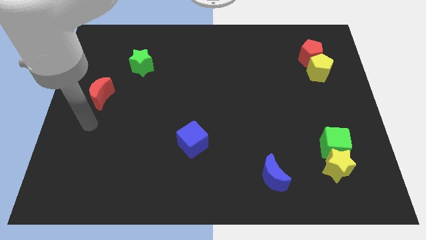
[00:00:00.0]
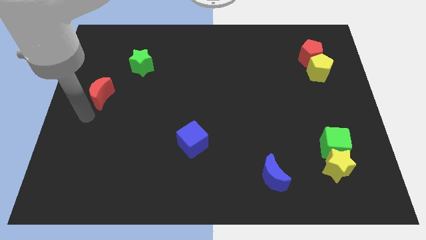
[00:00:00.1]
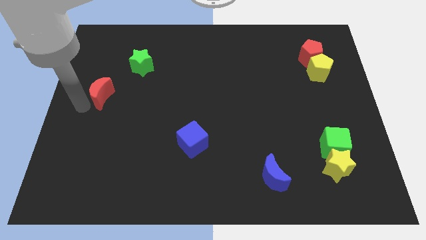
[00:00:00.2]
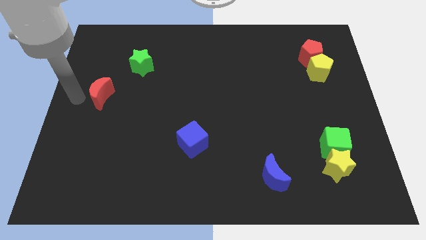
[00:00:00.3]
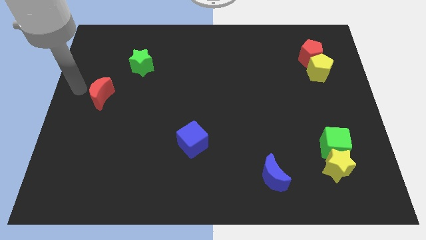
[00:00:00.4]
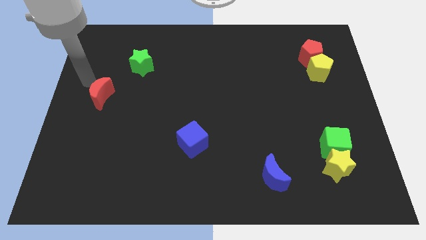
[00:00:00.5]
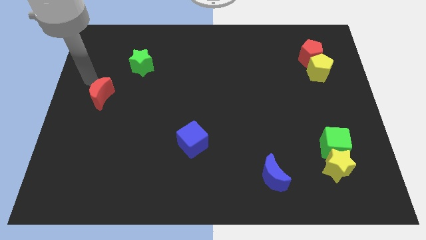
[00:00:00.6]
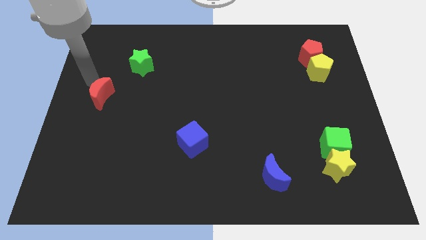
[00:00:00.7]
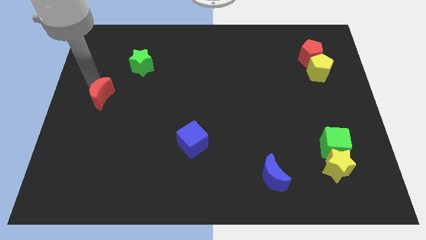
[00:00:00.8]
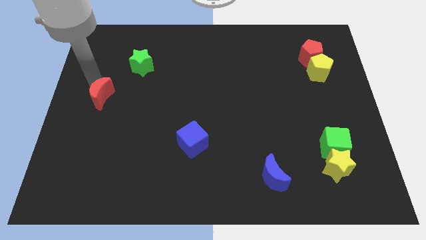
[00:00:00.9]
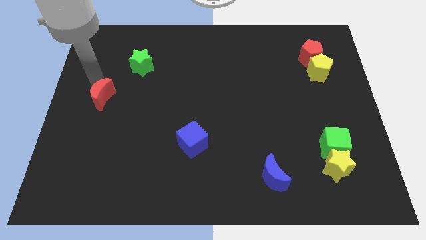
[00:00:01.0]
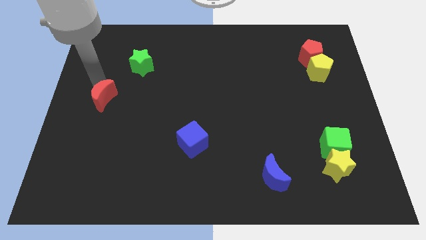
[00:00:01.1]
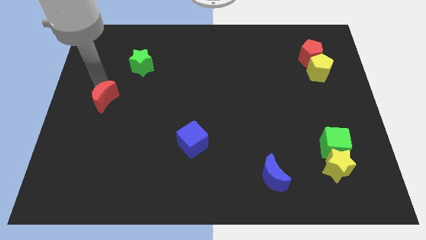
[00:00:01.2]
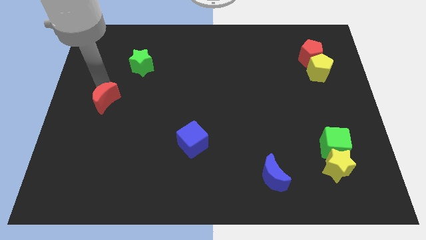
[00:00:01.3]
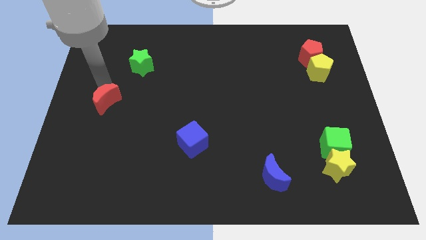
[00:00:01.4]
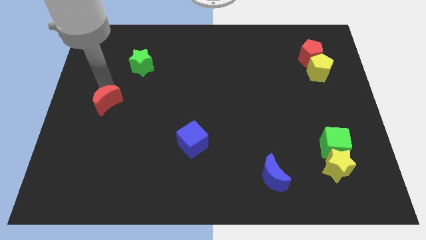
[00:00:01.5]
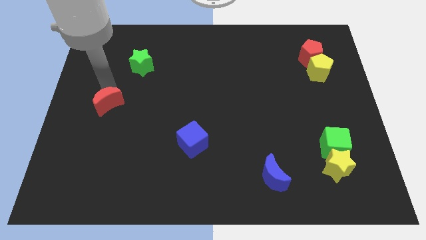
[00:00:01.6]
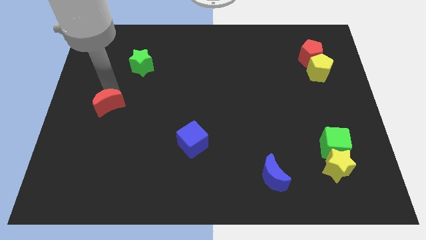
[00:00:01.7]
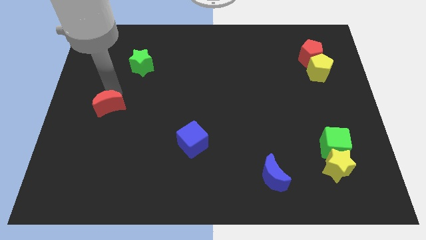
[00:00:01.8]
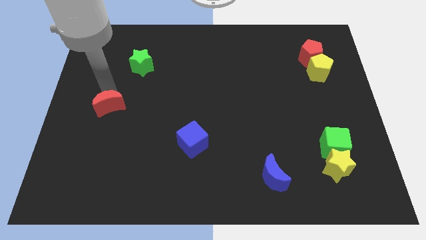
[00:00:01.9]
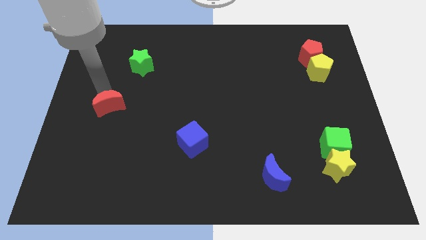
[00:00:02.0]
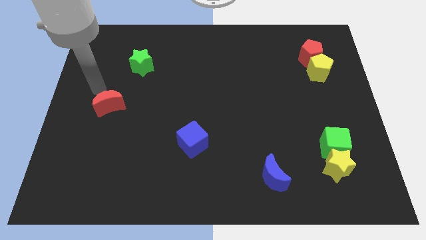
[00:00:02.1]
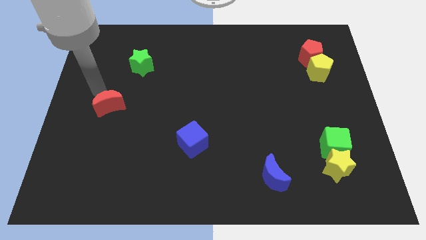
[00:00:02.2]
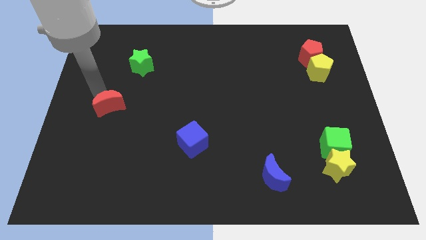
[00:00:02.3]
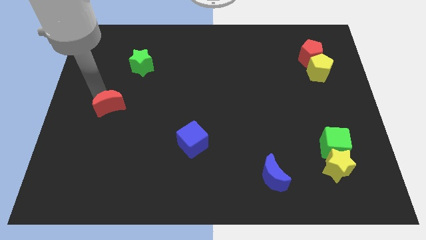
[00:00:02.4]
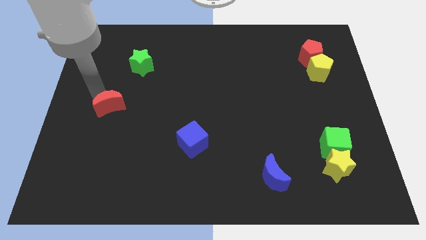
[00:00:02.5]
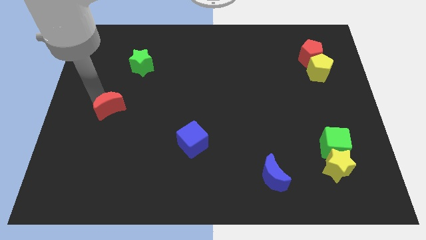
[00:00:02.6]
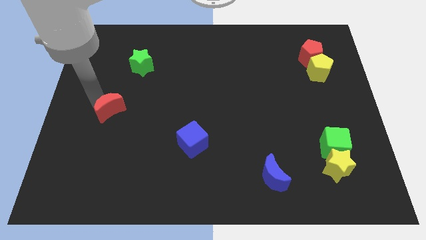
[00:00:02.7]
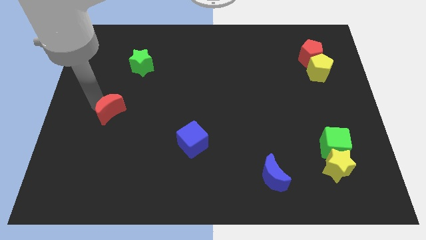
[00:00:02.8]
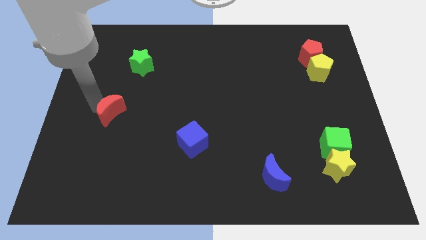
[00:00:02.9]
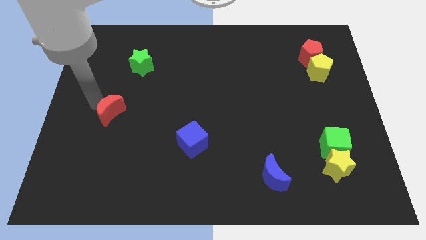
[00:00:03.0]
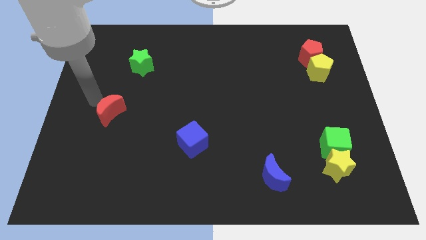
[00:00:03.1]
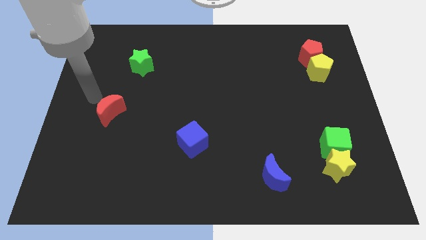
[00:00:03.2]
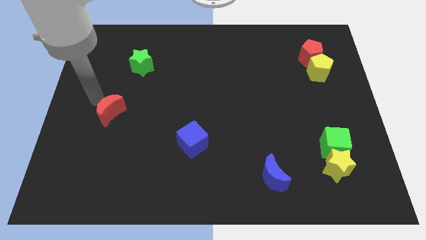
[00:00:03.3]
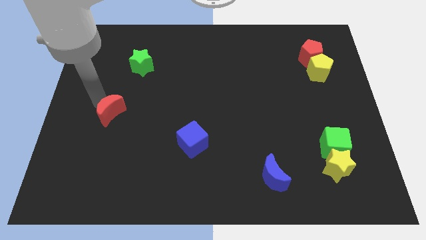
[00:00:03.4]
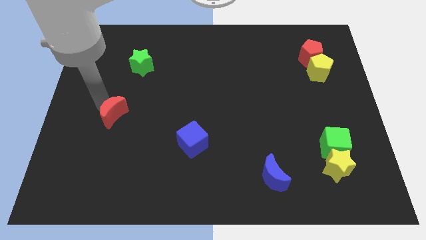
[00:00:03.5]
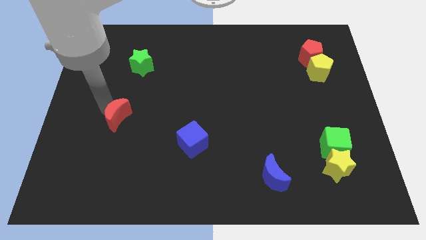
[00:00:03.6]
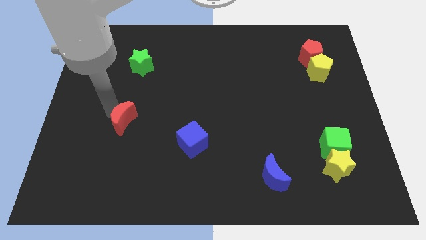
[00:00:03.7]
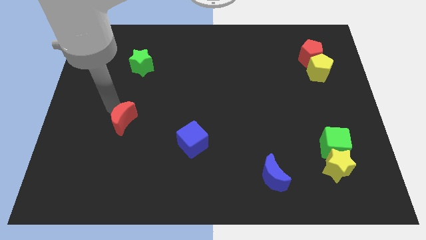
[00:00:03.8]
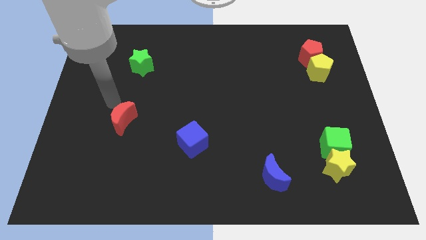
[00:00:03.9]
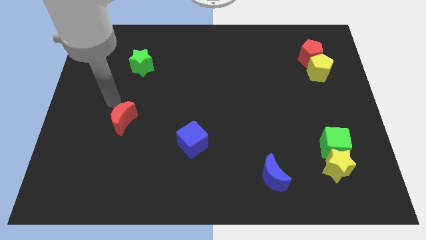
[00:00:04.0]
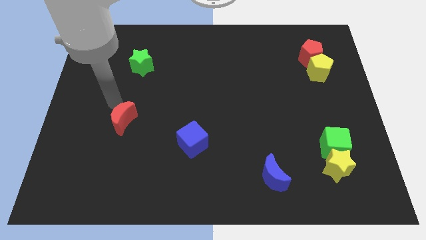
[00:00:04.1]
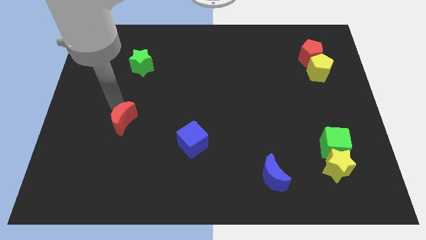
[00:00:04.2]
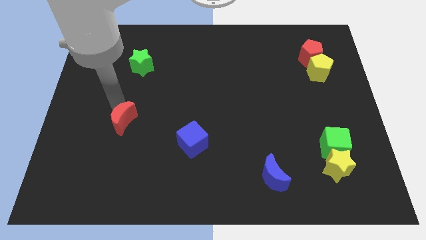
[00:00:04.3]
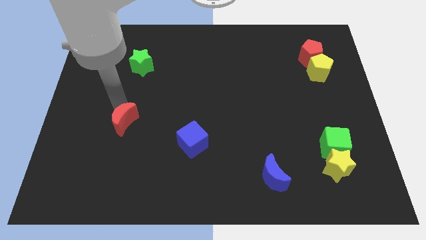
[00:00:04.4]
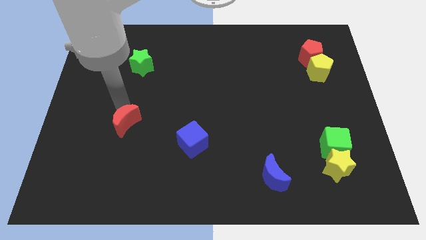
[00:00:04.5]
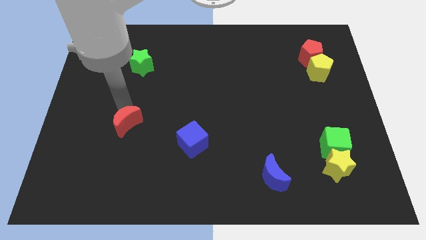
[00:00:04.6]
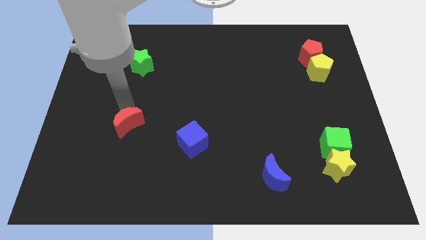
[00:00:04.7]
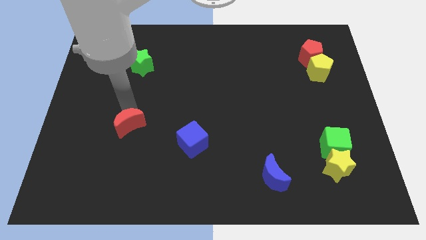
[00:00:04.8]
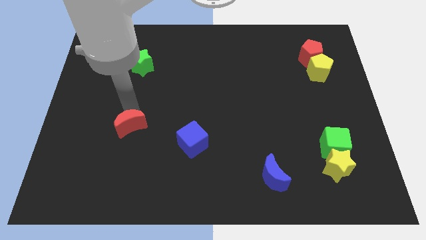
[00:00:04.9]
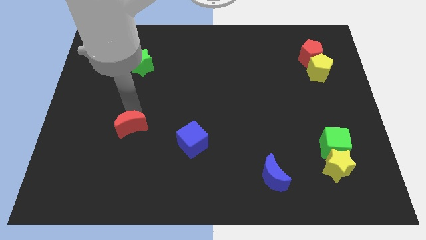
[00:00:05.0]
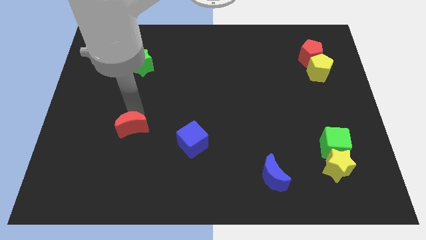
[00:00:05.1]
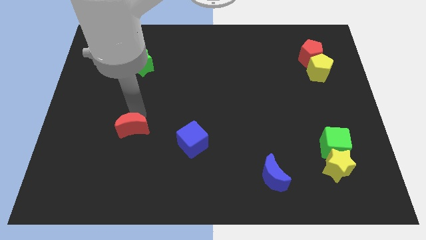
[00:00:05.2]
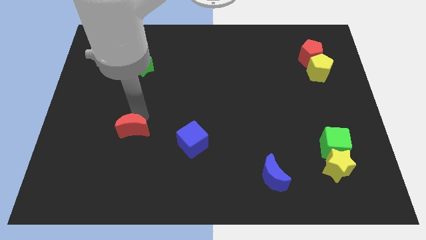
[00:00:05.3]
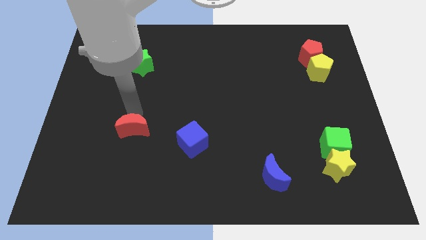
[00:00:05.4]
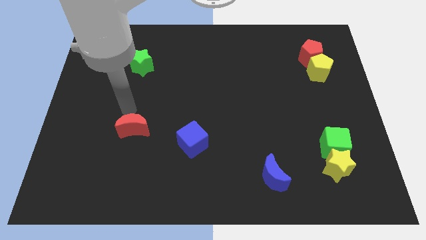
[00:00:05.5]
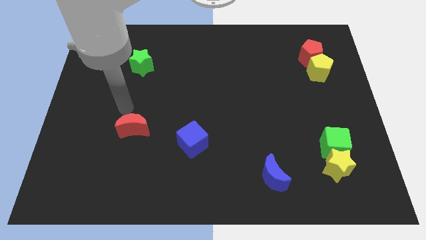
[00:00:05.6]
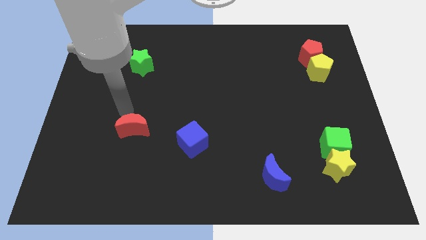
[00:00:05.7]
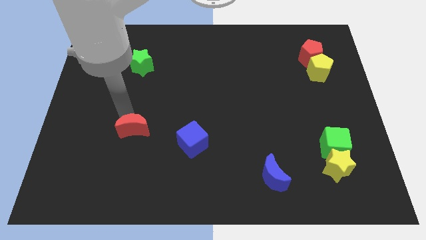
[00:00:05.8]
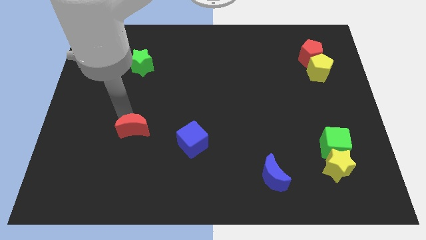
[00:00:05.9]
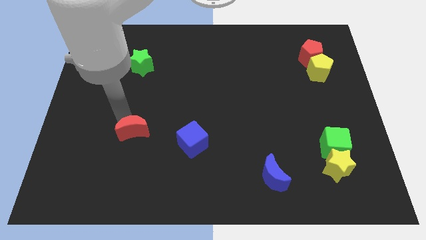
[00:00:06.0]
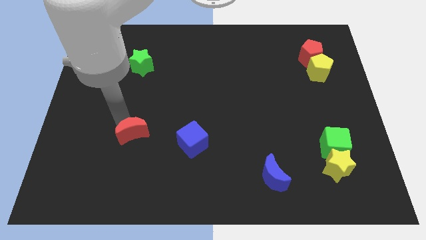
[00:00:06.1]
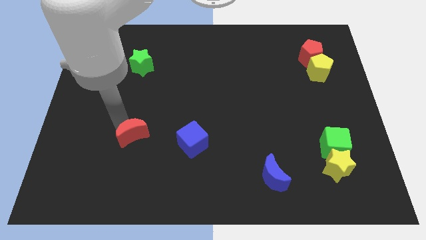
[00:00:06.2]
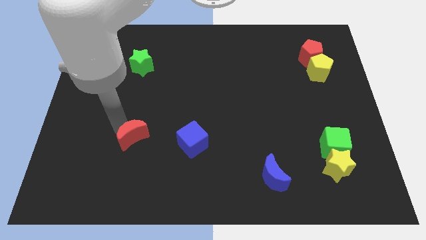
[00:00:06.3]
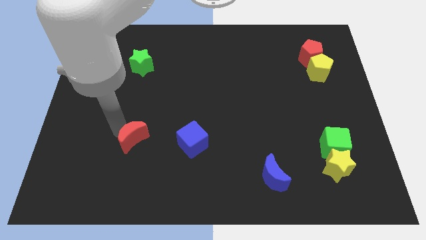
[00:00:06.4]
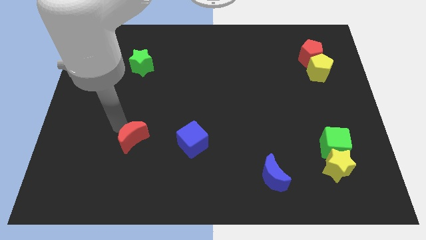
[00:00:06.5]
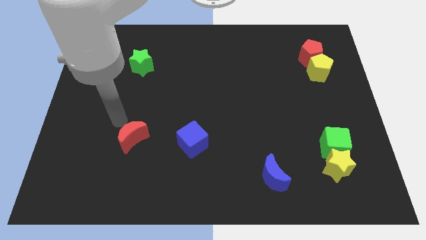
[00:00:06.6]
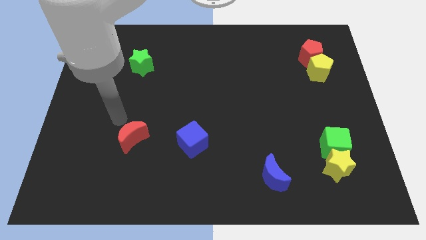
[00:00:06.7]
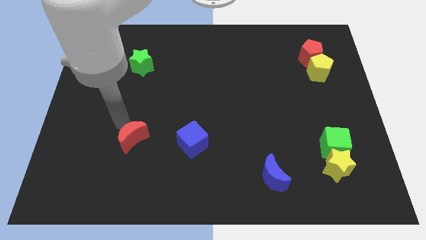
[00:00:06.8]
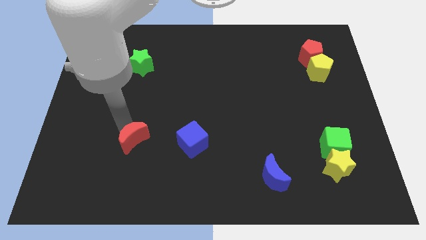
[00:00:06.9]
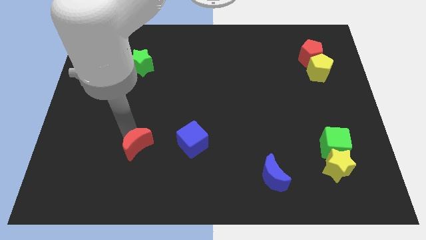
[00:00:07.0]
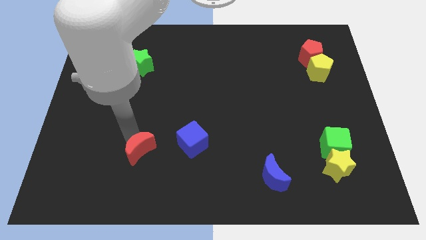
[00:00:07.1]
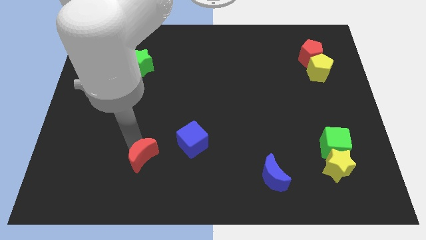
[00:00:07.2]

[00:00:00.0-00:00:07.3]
slide the red moon down and then to the right

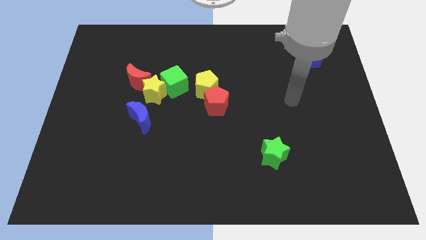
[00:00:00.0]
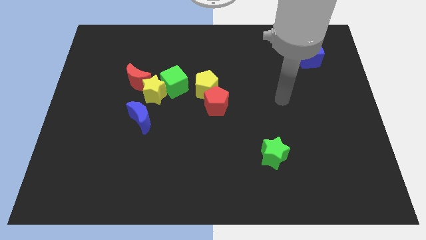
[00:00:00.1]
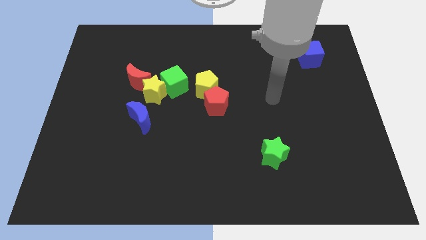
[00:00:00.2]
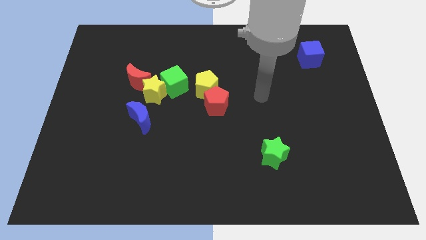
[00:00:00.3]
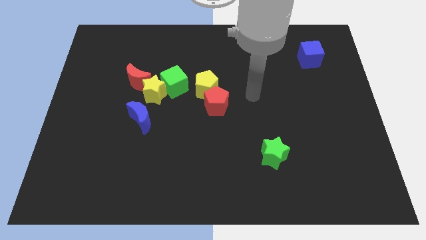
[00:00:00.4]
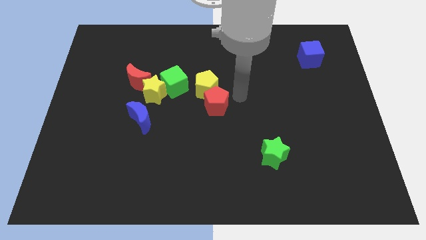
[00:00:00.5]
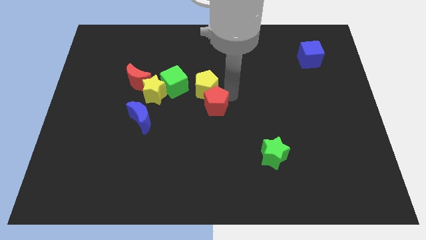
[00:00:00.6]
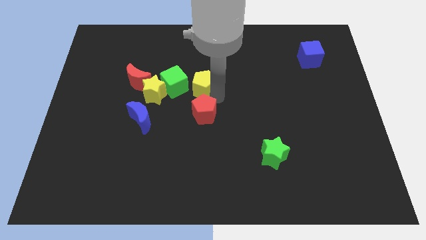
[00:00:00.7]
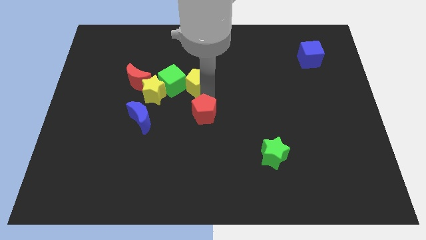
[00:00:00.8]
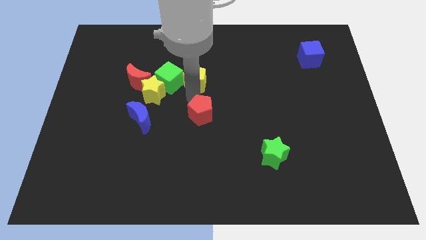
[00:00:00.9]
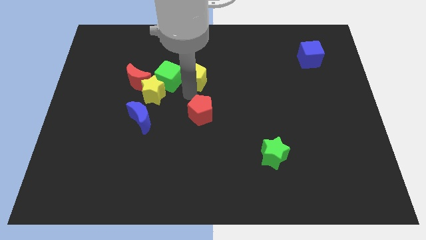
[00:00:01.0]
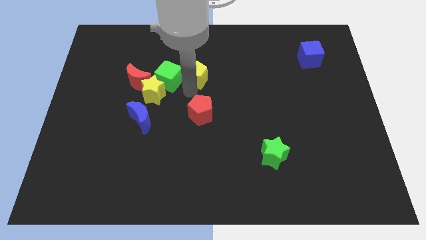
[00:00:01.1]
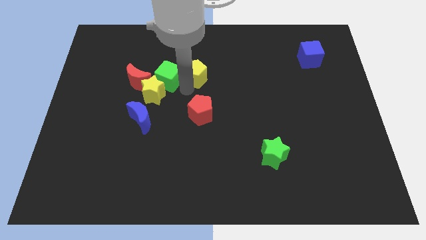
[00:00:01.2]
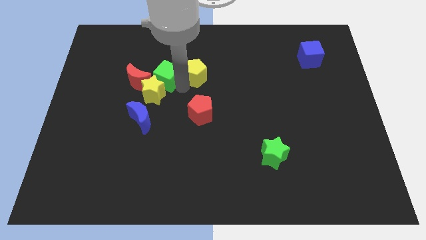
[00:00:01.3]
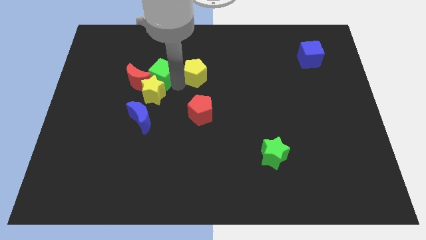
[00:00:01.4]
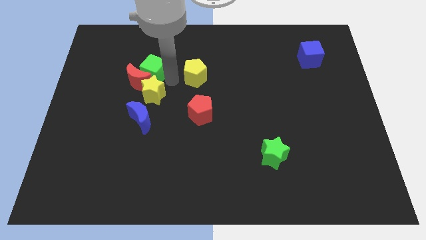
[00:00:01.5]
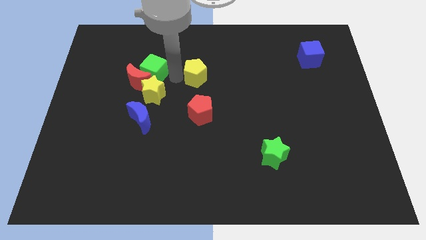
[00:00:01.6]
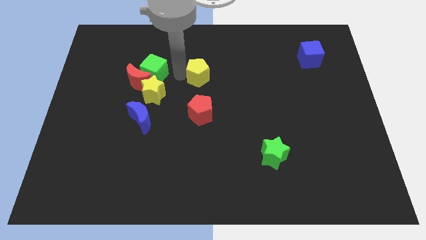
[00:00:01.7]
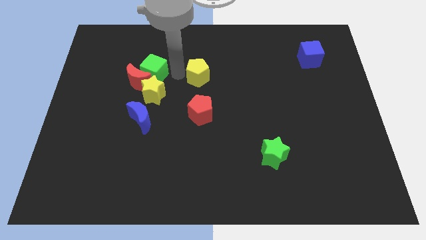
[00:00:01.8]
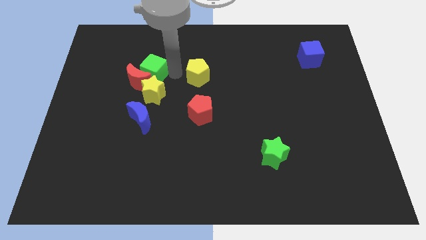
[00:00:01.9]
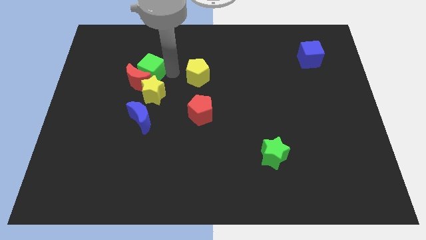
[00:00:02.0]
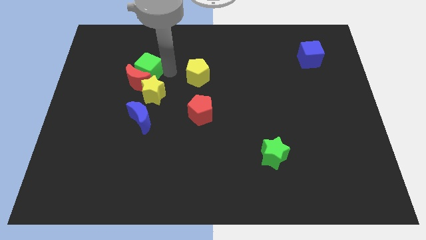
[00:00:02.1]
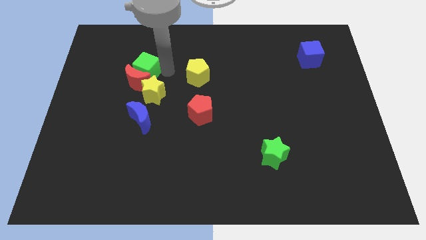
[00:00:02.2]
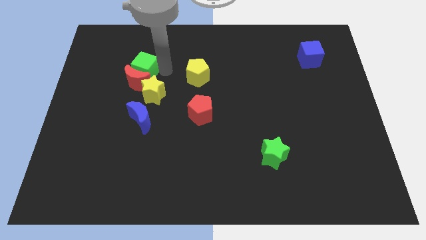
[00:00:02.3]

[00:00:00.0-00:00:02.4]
slightly move the green cube to the left
